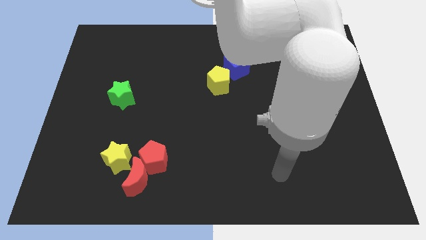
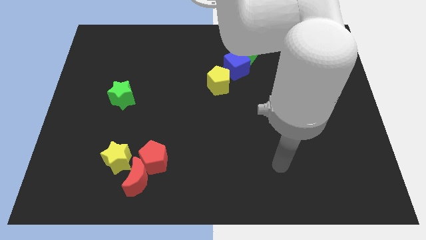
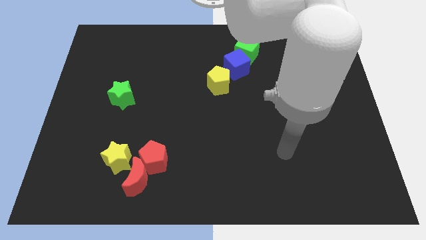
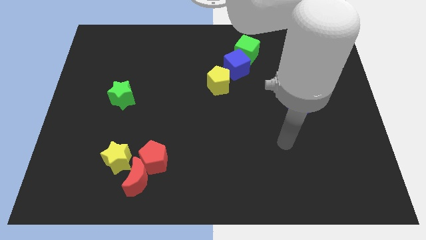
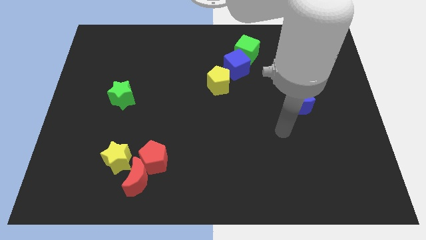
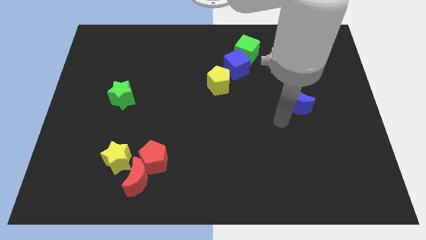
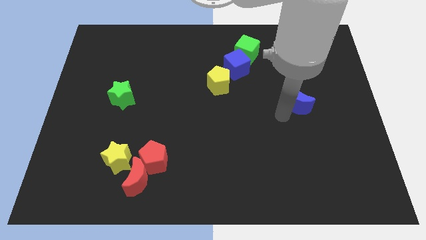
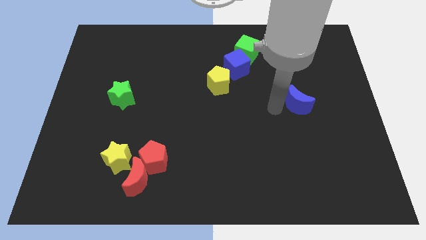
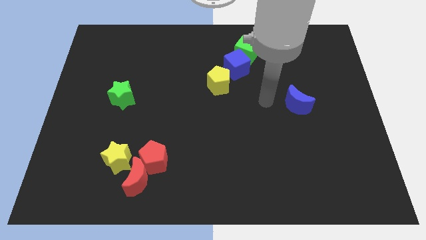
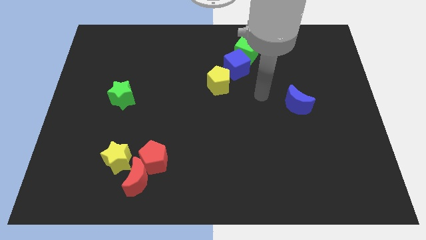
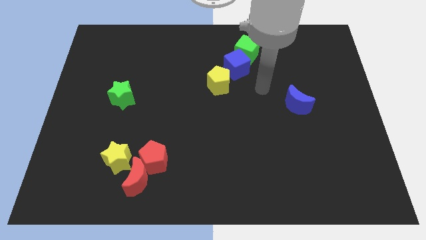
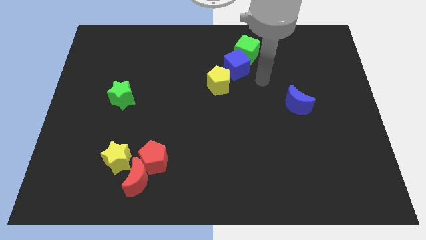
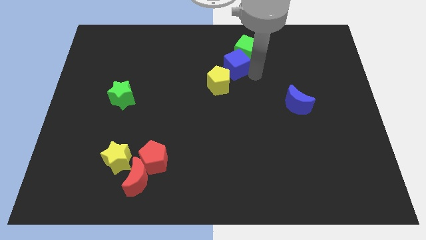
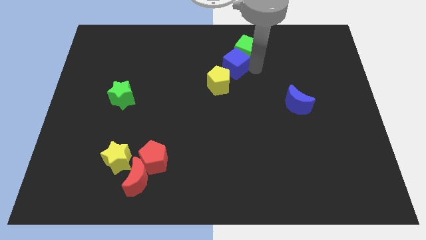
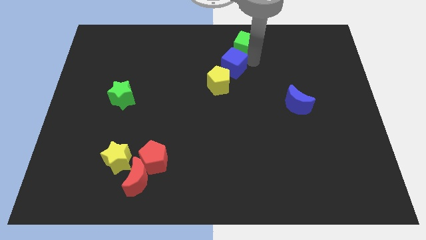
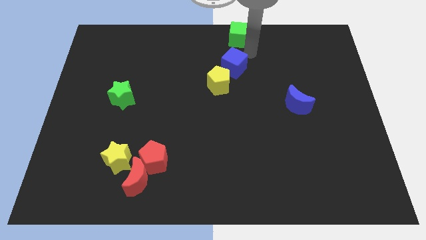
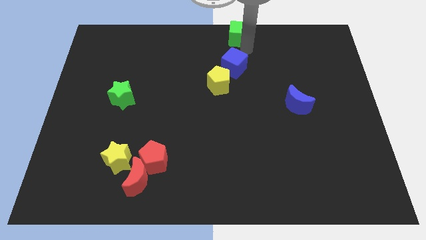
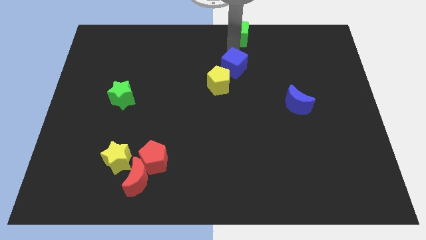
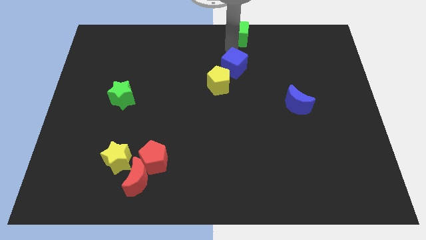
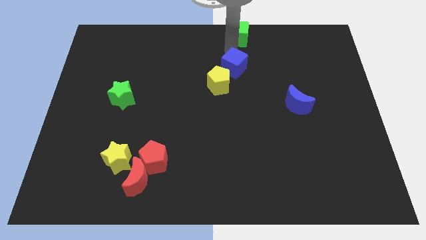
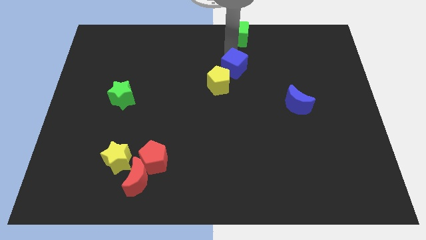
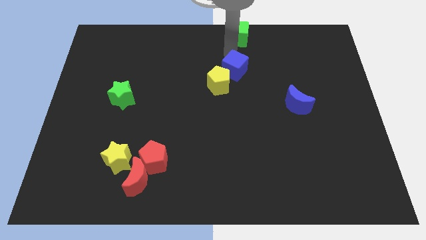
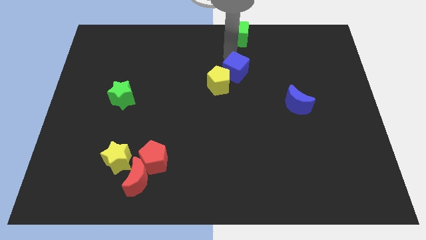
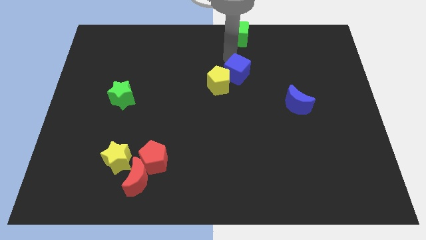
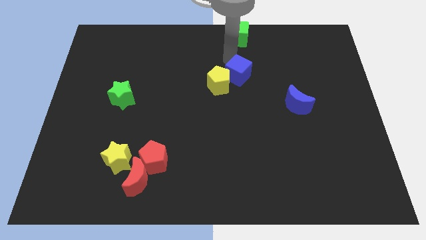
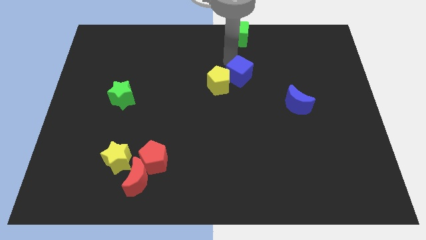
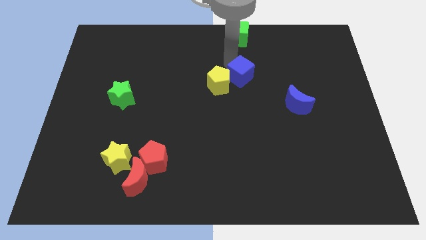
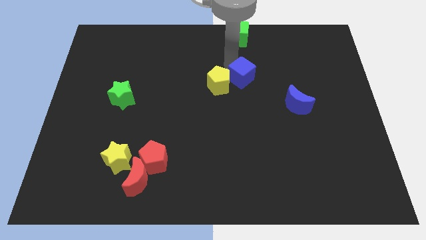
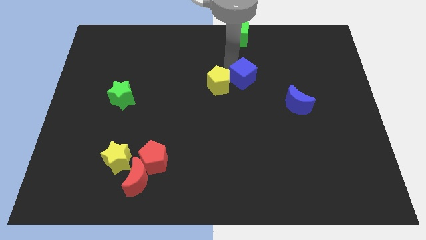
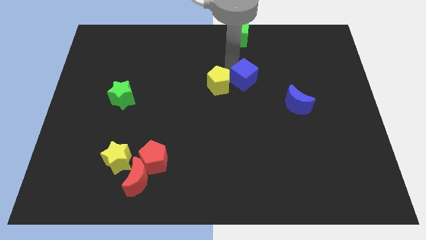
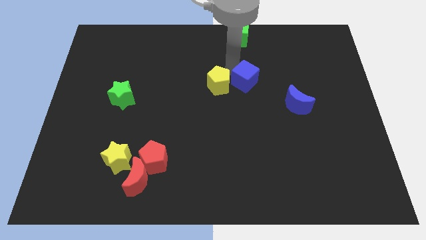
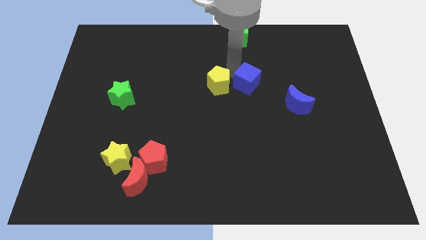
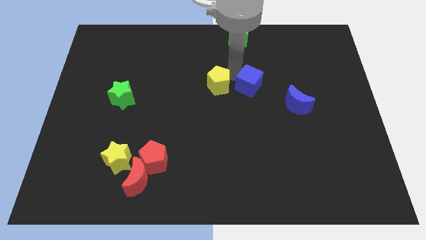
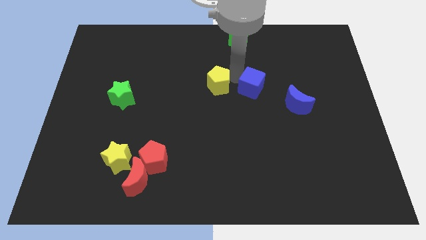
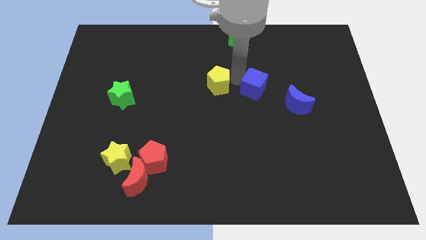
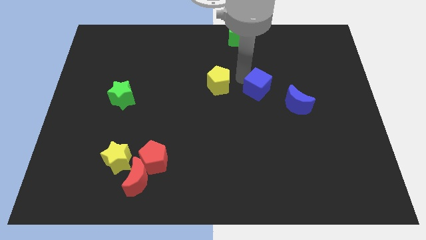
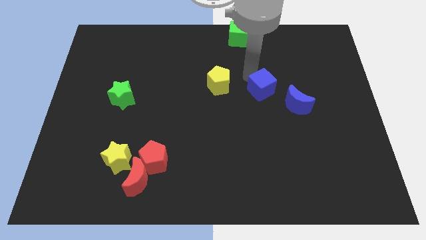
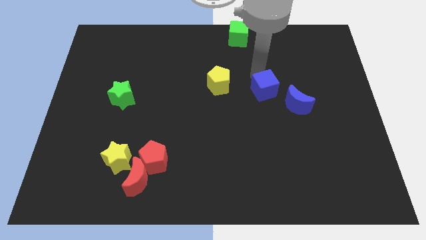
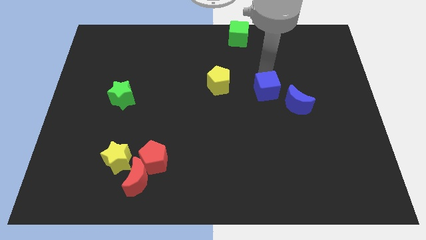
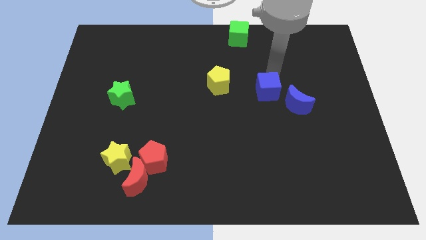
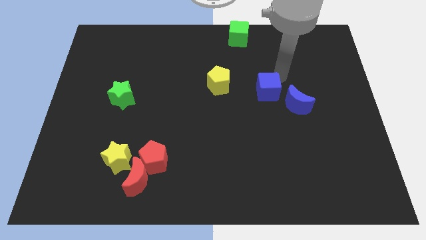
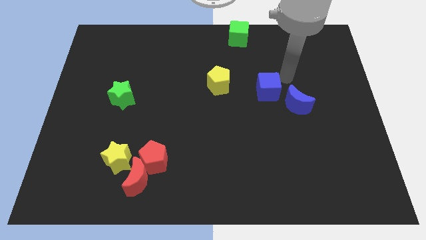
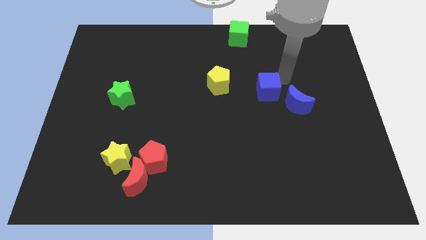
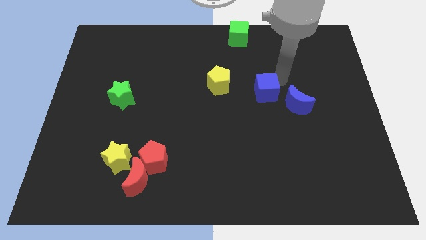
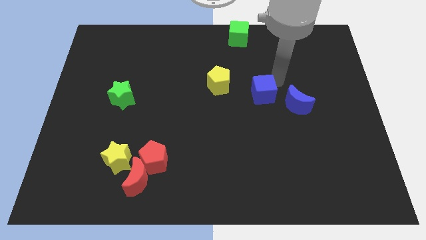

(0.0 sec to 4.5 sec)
push the blue cube a little downwards

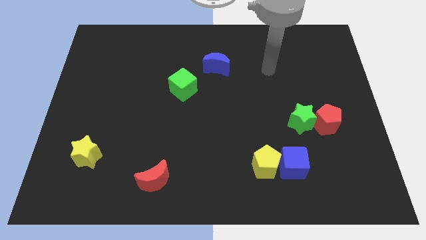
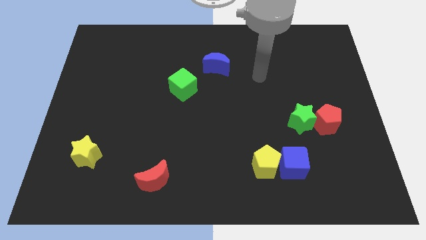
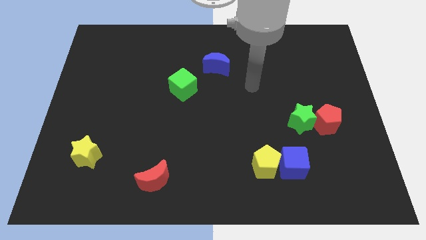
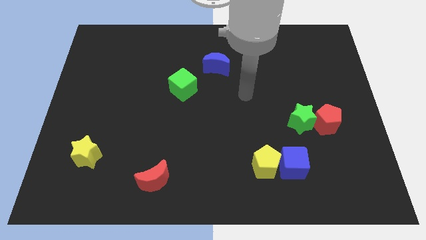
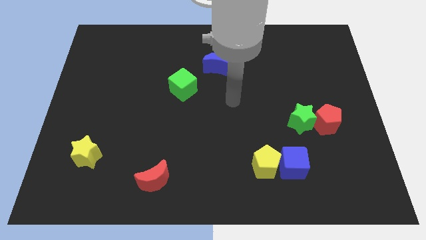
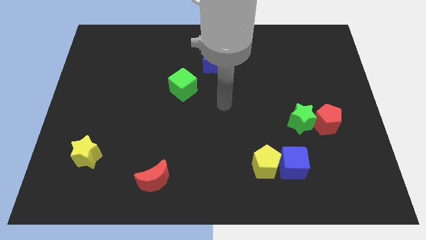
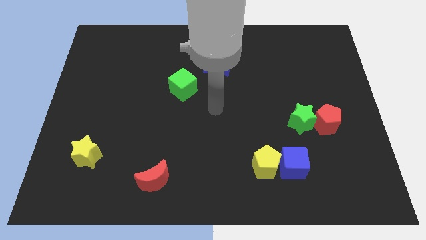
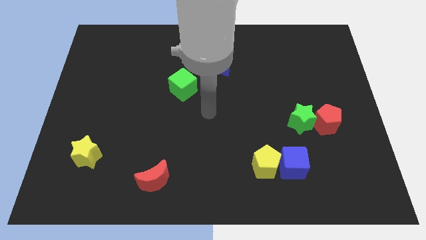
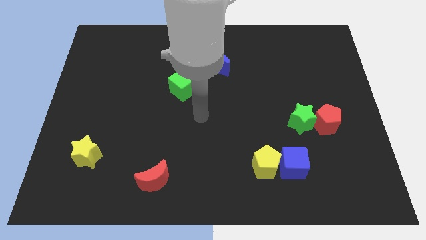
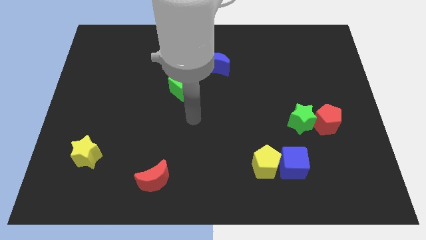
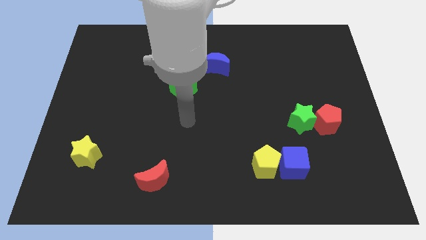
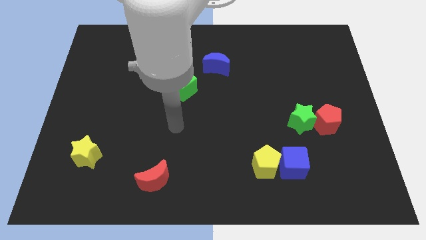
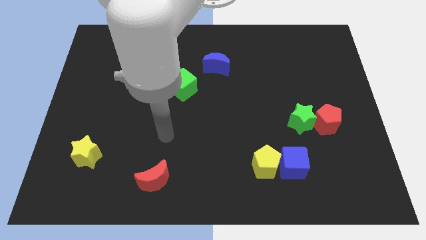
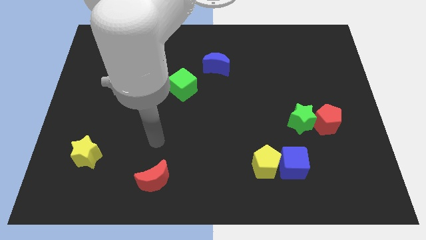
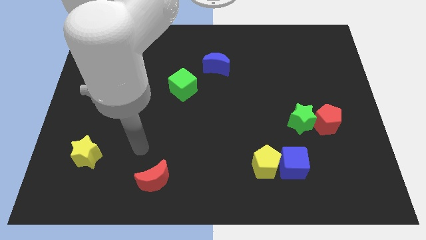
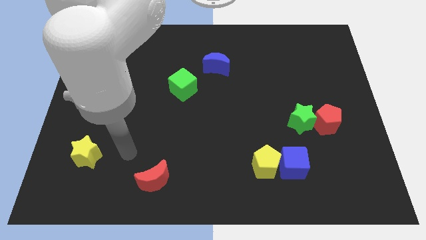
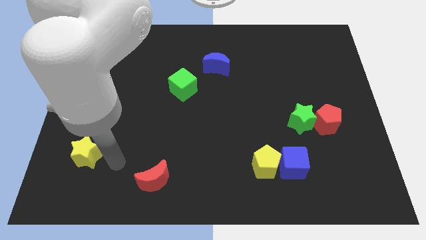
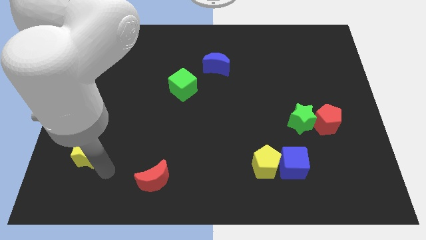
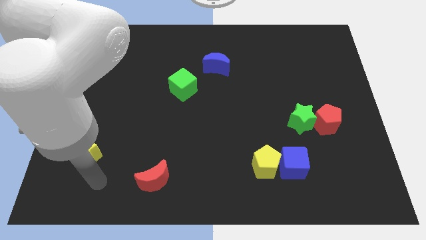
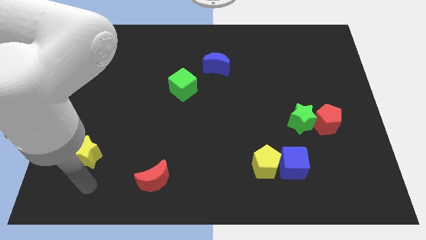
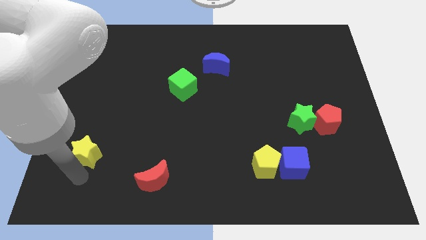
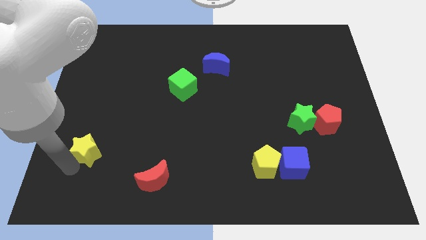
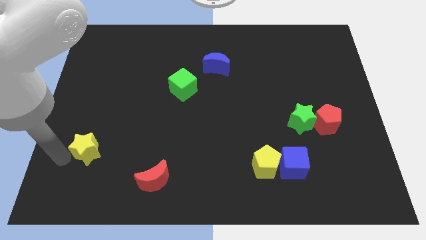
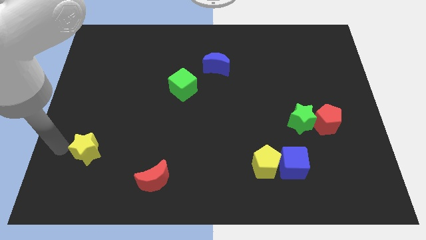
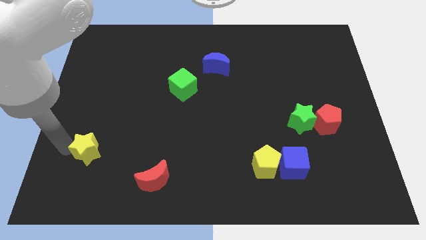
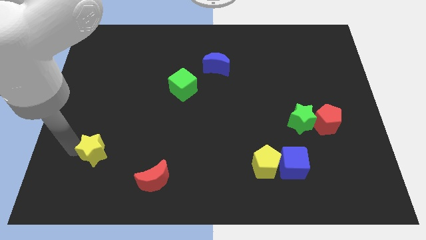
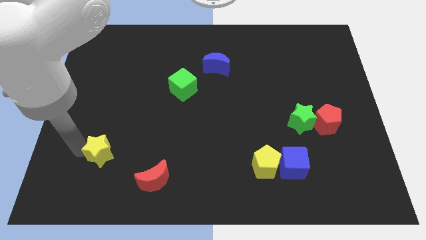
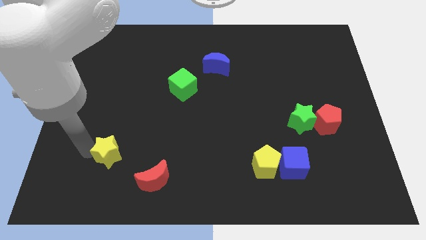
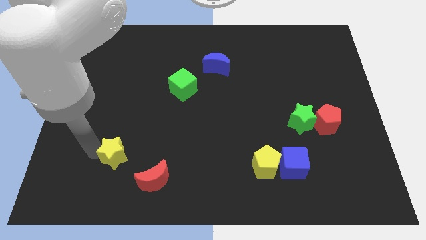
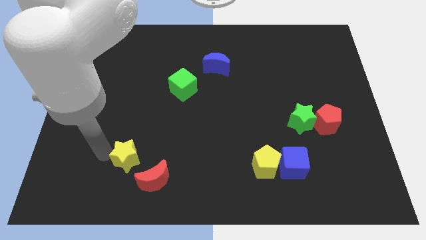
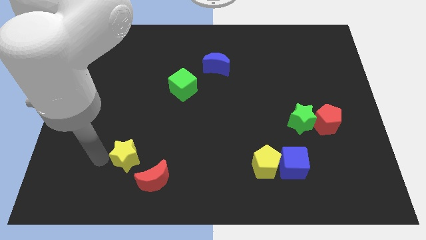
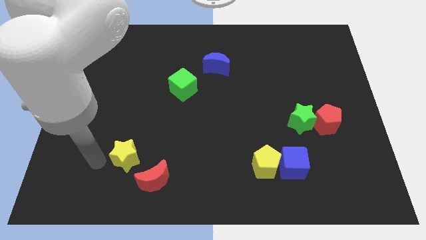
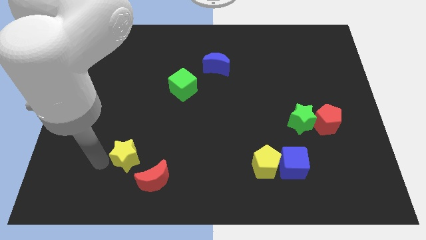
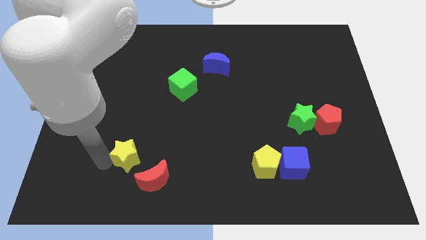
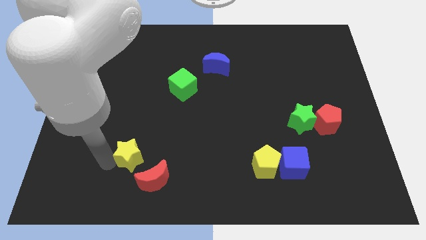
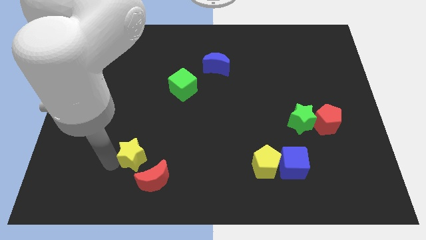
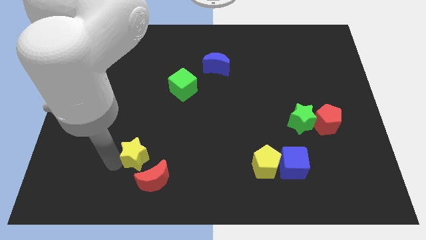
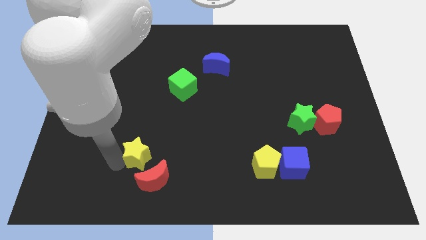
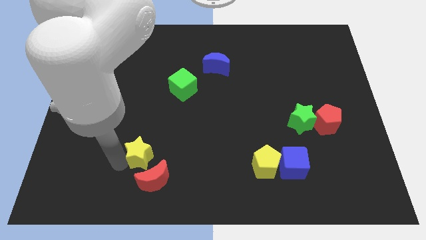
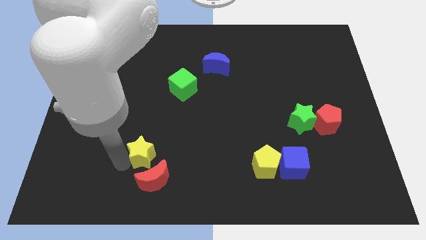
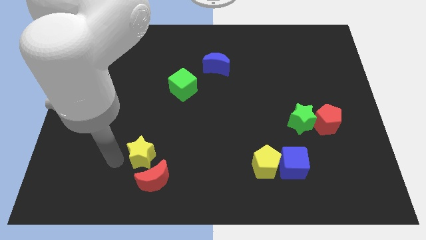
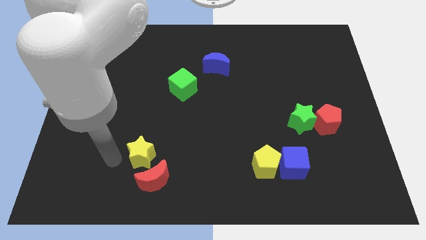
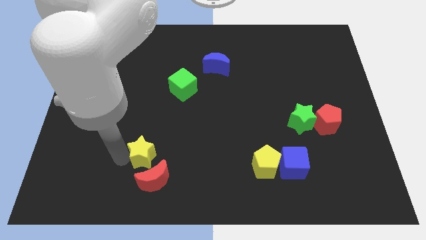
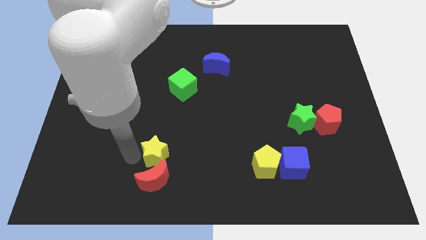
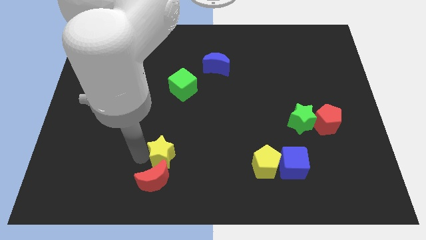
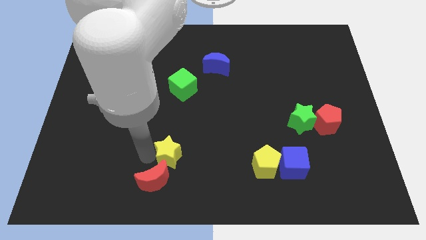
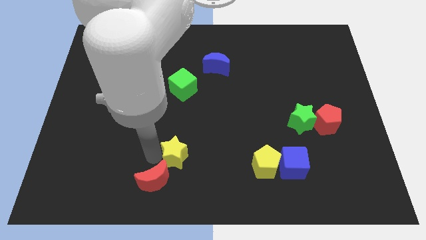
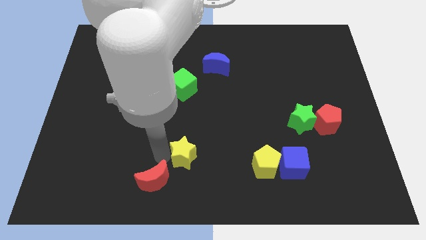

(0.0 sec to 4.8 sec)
move the yellow star right
